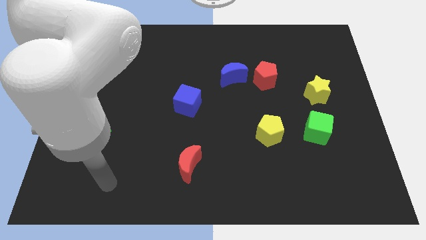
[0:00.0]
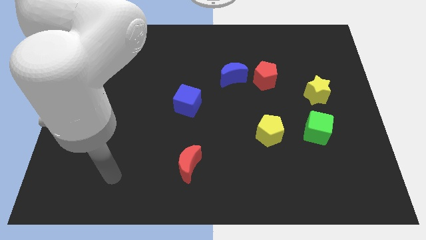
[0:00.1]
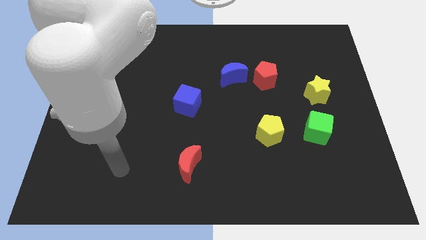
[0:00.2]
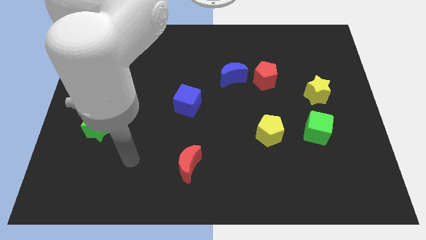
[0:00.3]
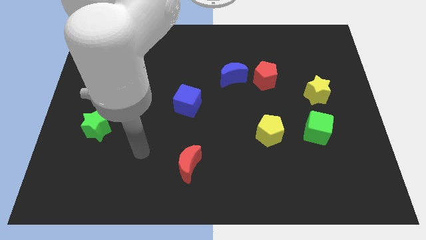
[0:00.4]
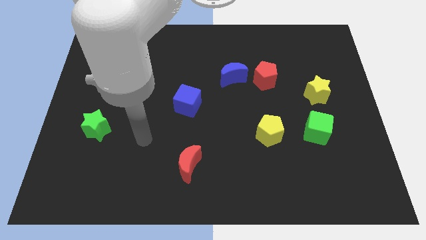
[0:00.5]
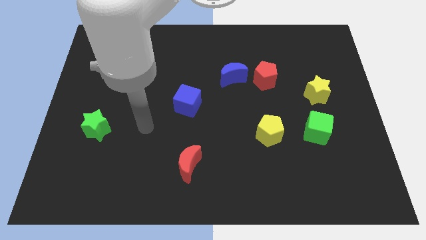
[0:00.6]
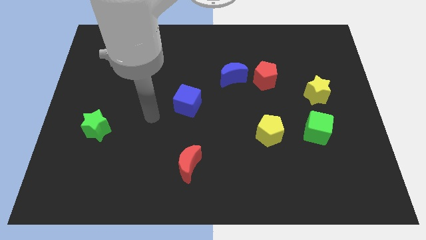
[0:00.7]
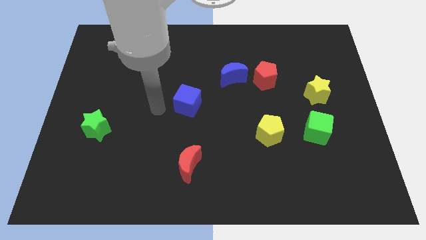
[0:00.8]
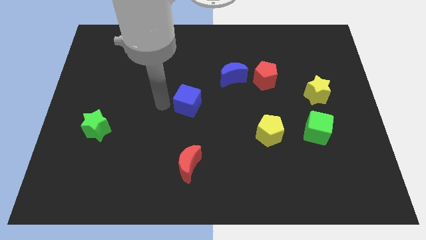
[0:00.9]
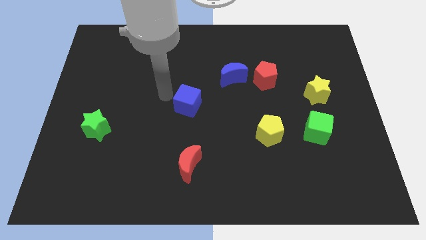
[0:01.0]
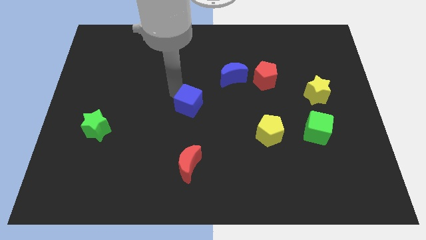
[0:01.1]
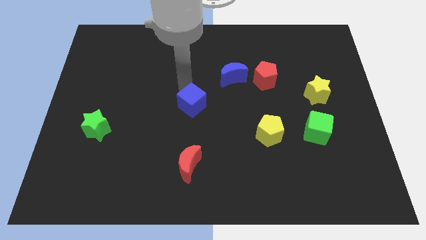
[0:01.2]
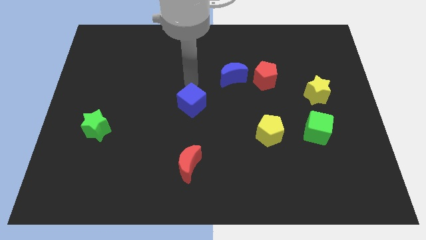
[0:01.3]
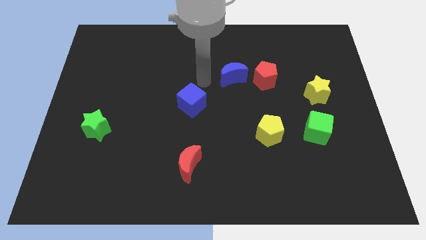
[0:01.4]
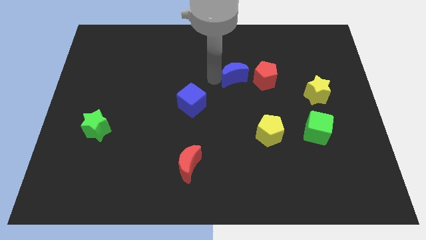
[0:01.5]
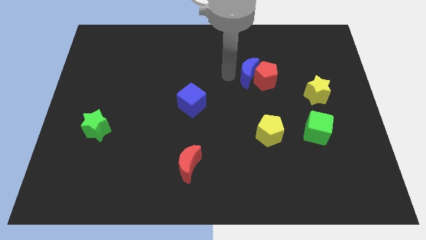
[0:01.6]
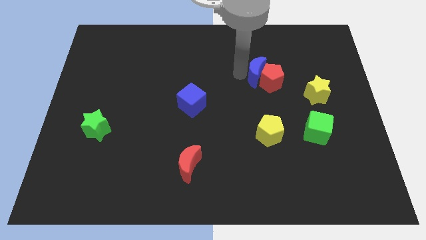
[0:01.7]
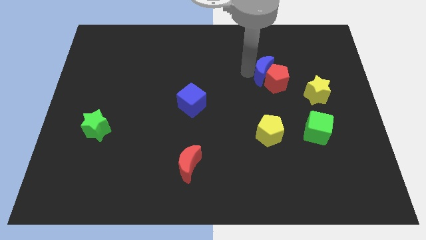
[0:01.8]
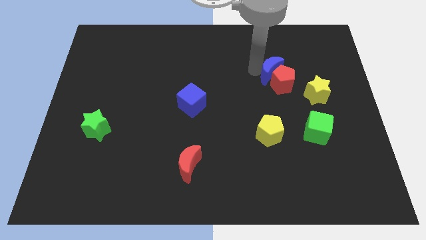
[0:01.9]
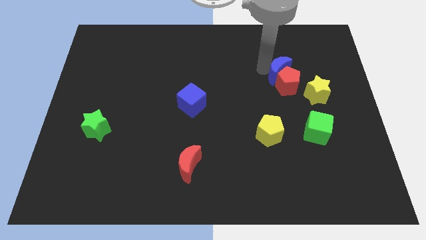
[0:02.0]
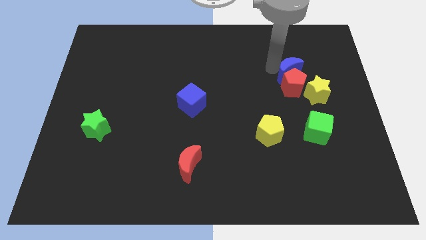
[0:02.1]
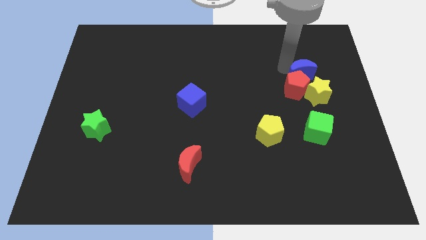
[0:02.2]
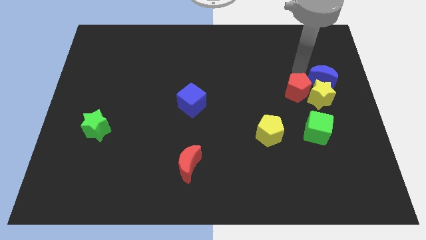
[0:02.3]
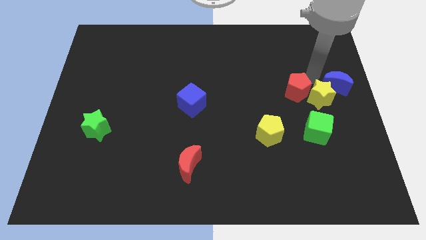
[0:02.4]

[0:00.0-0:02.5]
move the red pentagon away from the blue moon

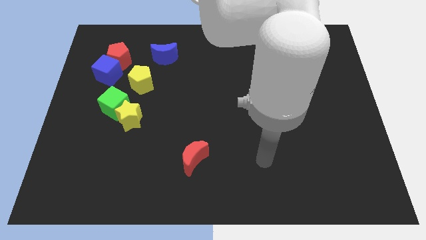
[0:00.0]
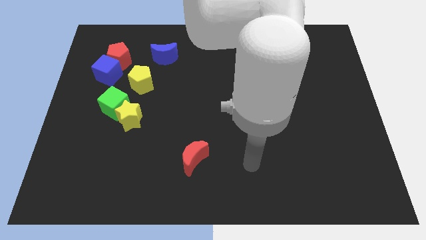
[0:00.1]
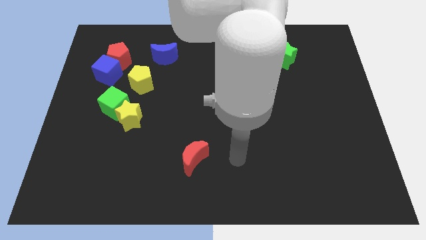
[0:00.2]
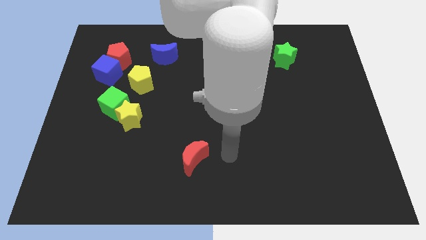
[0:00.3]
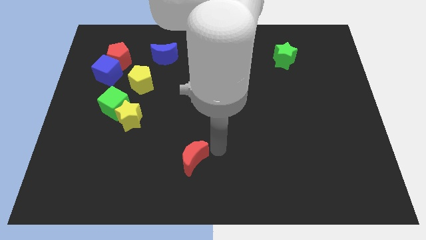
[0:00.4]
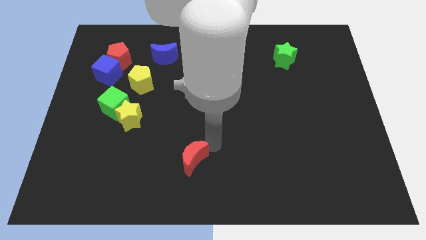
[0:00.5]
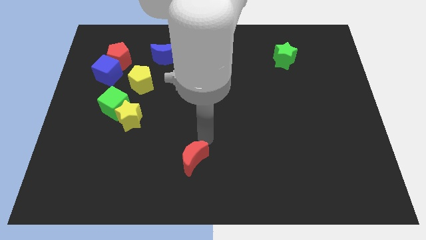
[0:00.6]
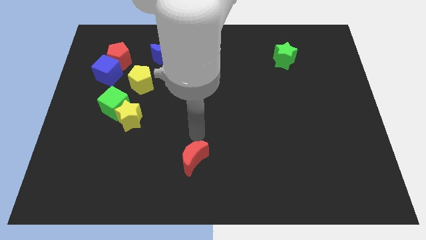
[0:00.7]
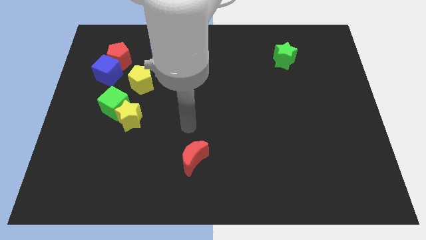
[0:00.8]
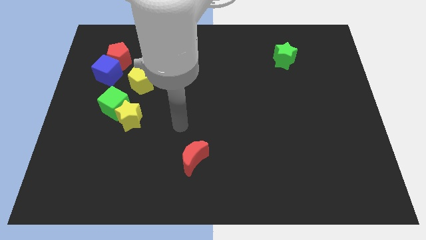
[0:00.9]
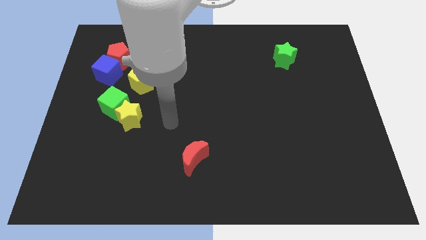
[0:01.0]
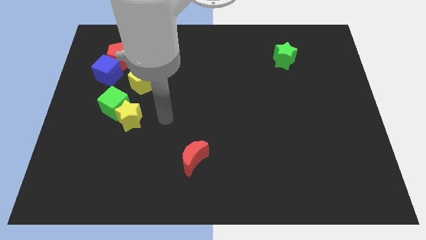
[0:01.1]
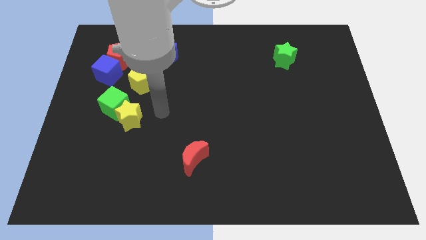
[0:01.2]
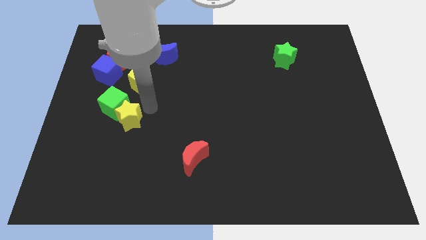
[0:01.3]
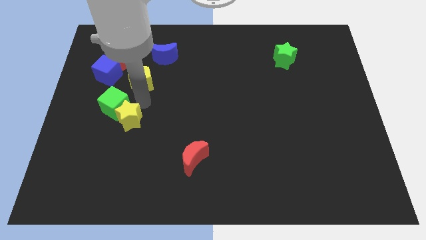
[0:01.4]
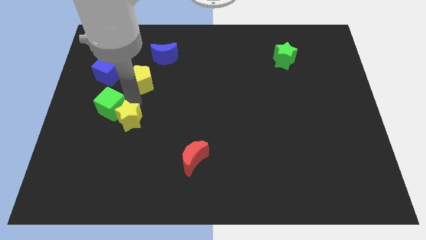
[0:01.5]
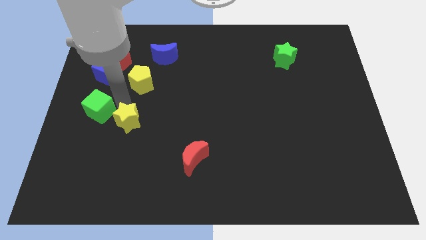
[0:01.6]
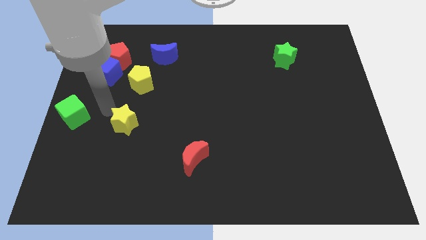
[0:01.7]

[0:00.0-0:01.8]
pull the yellow star apart from the green cube

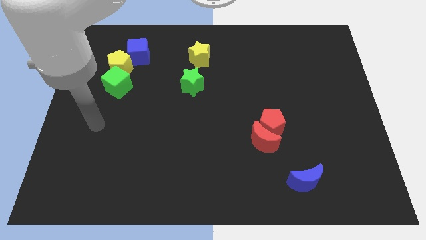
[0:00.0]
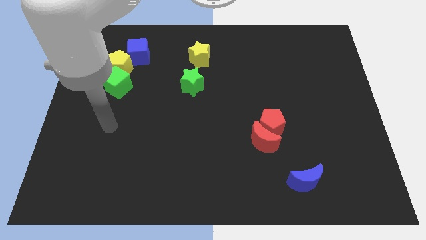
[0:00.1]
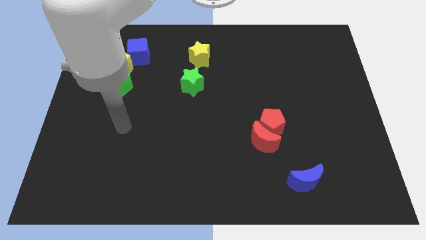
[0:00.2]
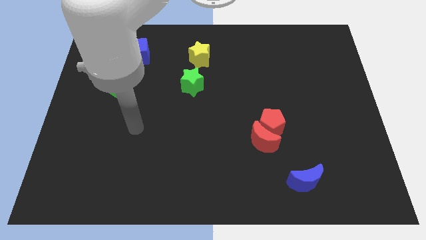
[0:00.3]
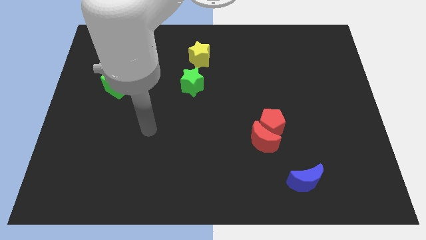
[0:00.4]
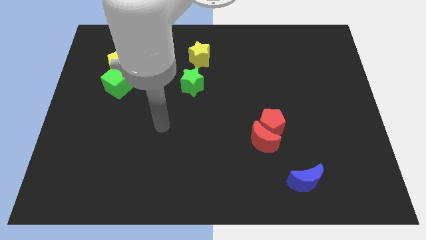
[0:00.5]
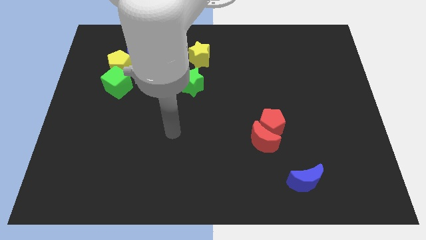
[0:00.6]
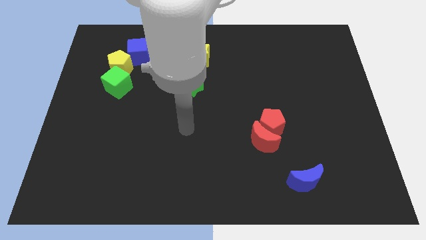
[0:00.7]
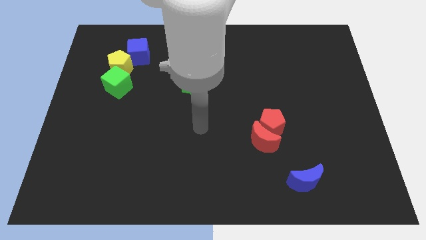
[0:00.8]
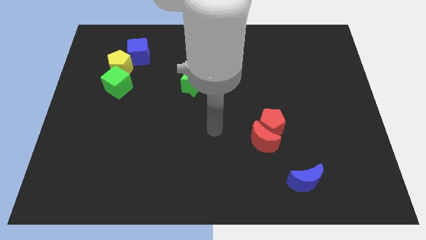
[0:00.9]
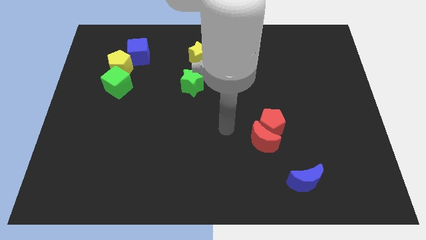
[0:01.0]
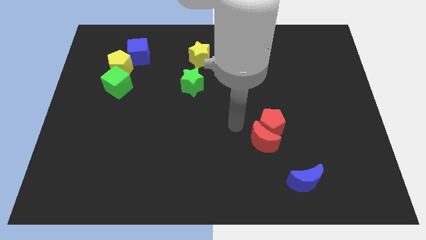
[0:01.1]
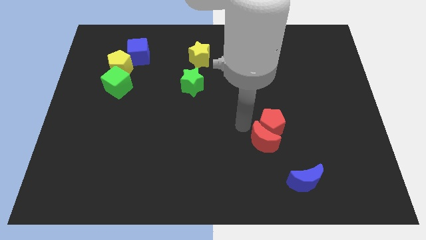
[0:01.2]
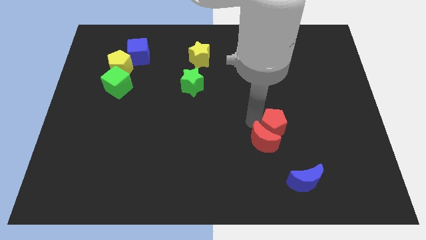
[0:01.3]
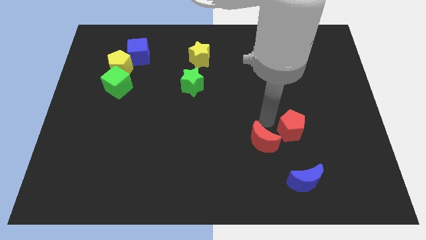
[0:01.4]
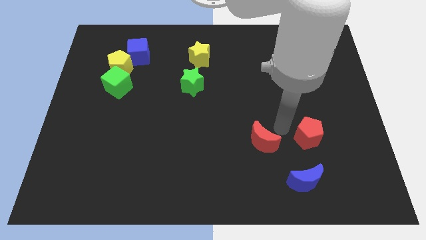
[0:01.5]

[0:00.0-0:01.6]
move the red moon away from the red pentagon

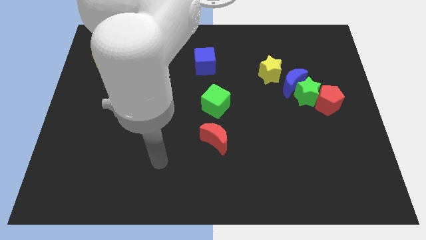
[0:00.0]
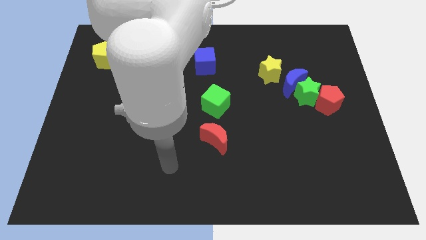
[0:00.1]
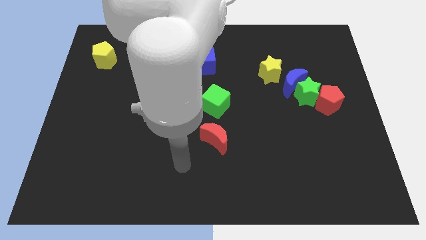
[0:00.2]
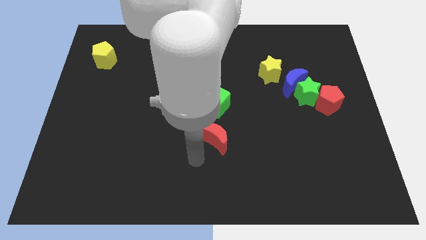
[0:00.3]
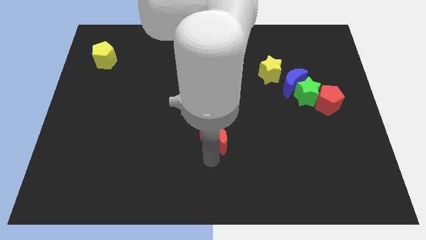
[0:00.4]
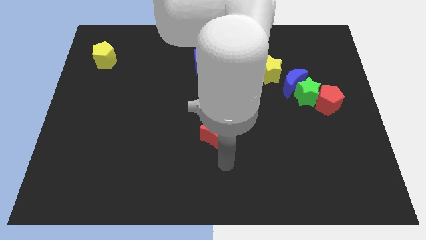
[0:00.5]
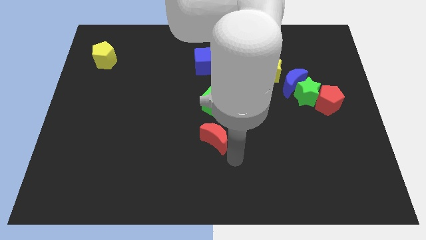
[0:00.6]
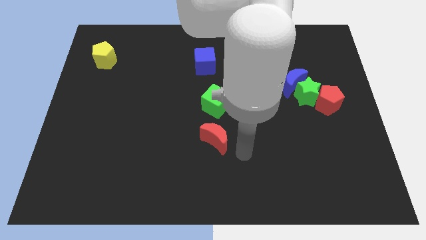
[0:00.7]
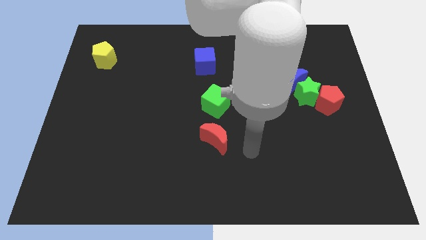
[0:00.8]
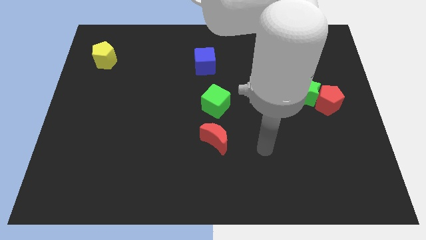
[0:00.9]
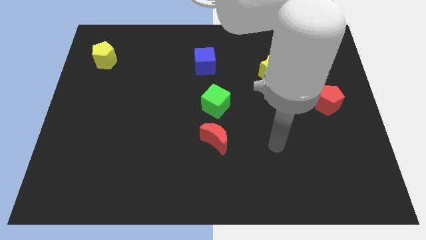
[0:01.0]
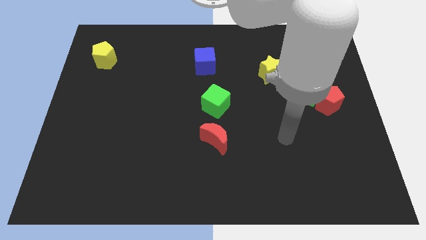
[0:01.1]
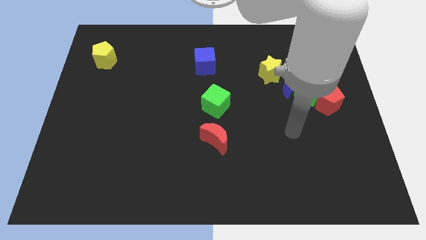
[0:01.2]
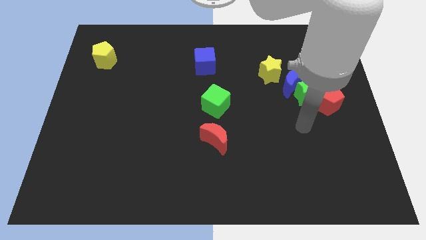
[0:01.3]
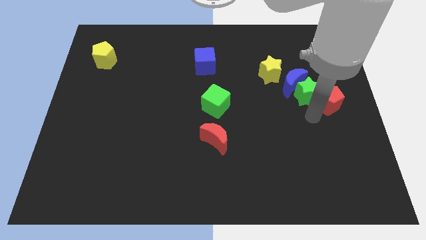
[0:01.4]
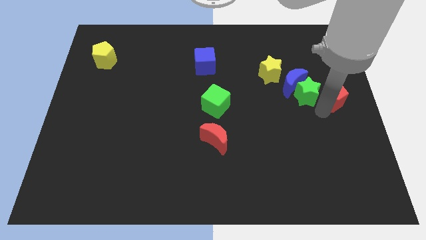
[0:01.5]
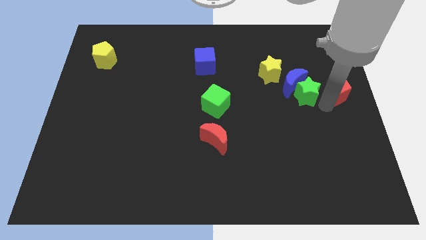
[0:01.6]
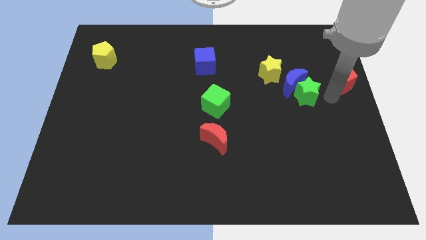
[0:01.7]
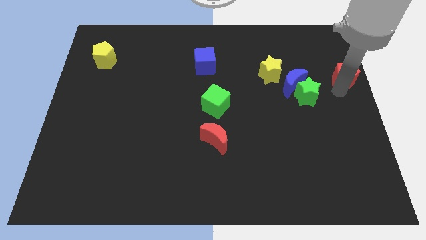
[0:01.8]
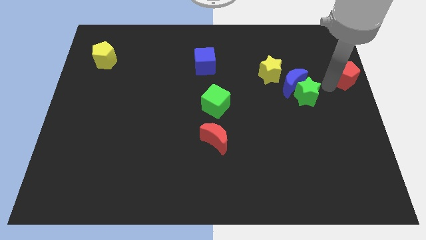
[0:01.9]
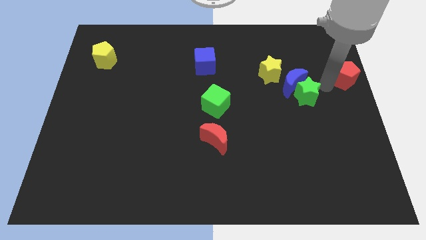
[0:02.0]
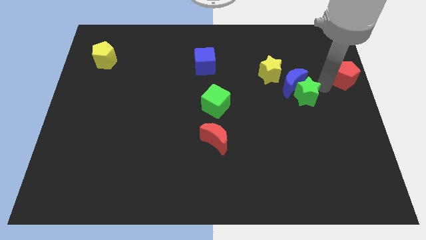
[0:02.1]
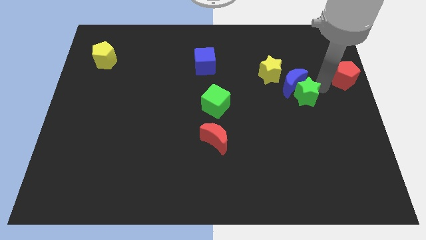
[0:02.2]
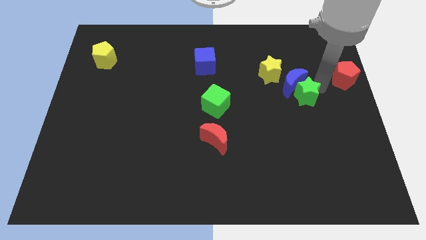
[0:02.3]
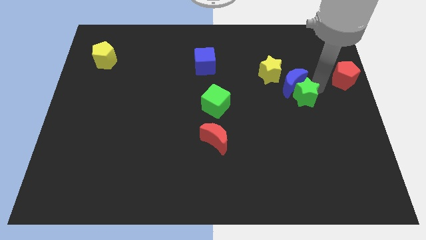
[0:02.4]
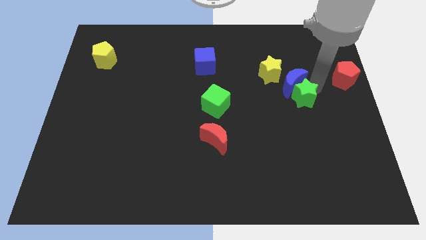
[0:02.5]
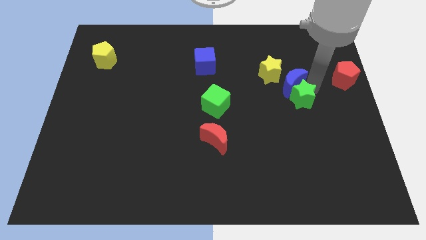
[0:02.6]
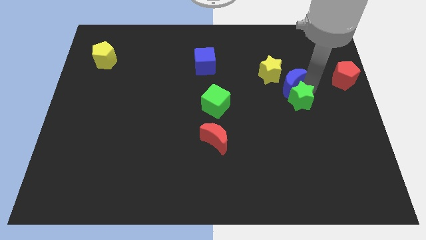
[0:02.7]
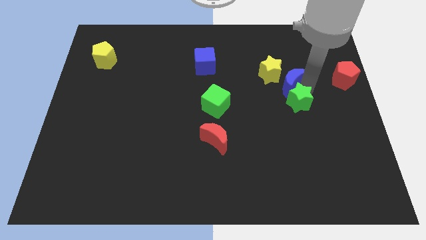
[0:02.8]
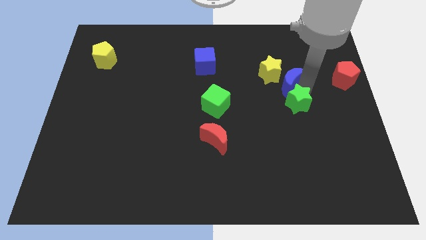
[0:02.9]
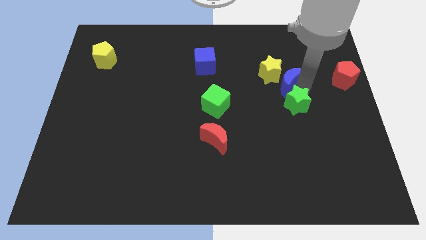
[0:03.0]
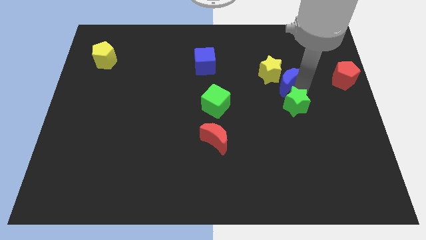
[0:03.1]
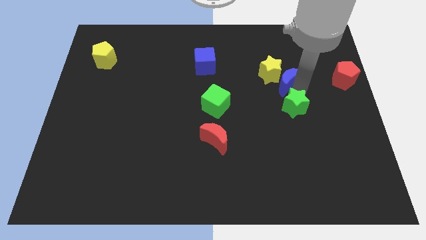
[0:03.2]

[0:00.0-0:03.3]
separate the green star from the blue moon and red pentagon

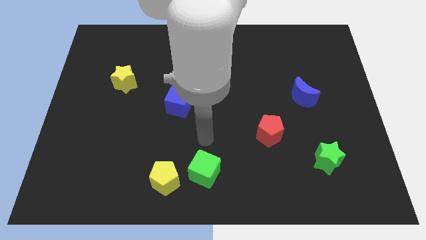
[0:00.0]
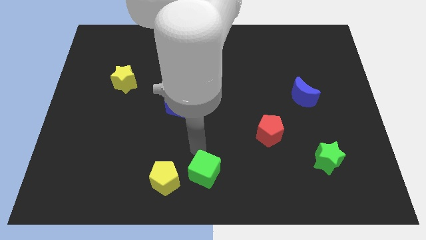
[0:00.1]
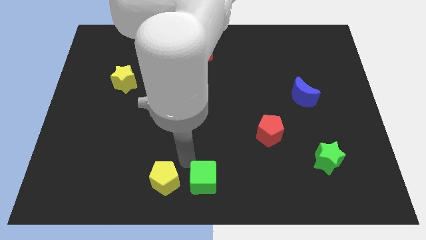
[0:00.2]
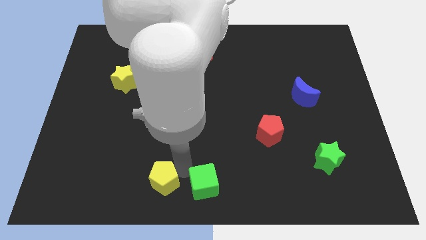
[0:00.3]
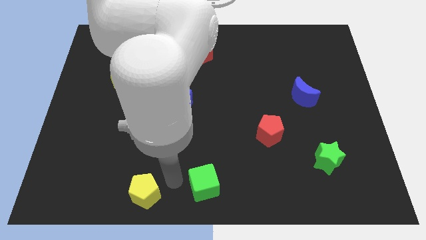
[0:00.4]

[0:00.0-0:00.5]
pull the green cube apart from the yellow pentagon
